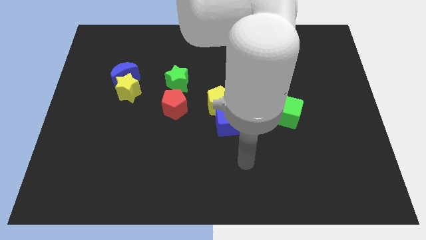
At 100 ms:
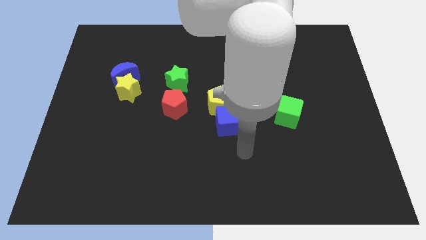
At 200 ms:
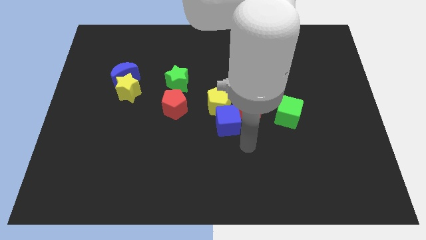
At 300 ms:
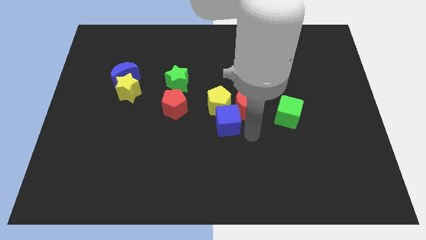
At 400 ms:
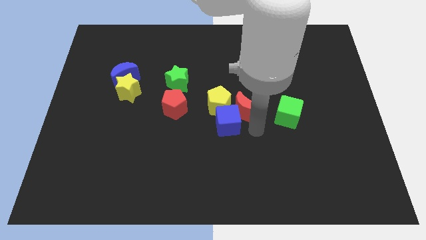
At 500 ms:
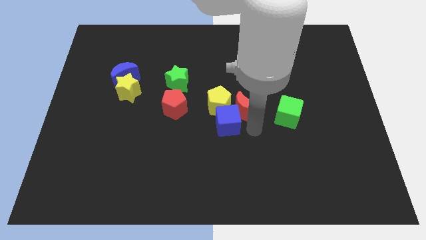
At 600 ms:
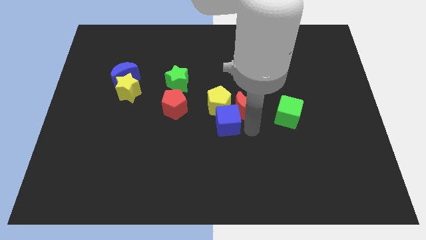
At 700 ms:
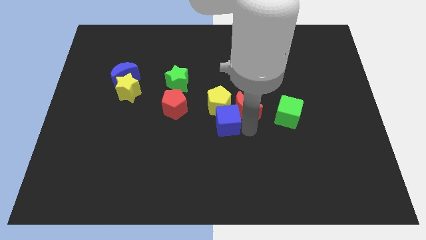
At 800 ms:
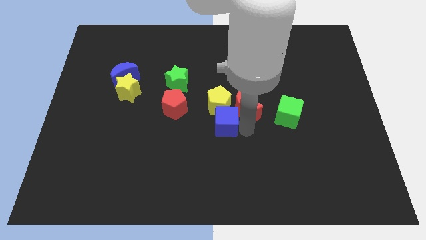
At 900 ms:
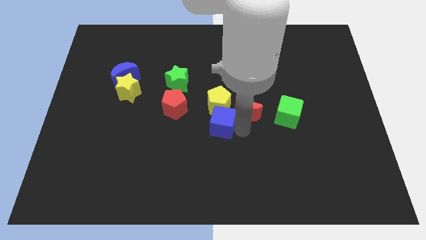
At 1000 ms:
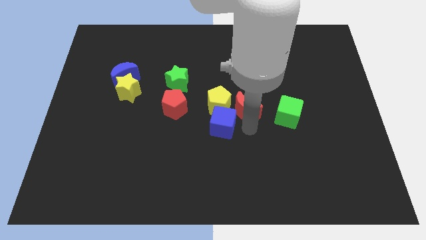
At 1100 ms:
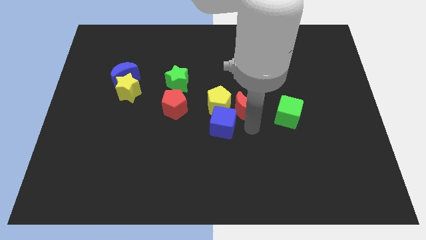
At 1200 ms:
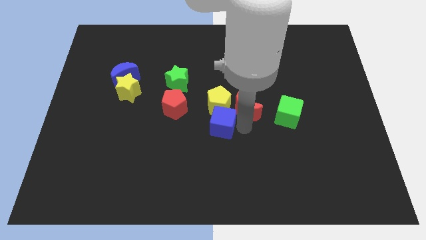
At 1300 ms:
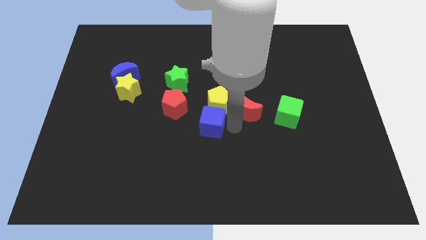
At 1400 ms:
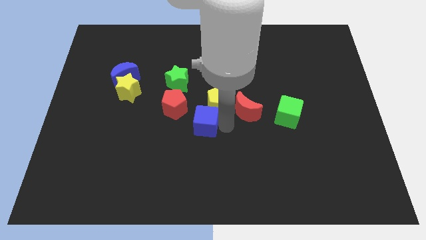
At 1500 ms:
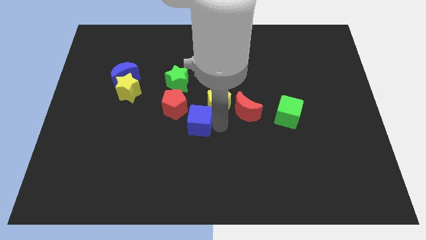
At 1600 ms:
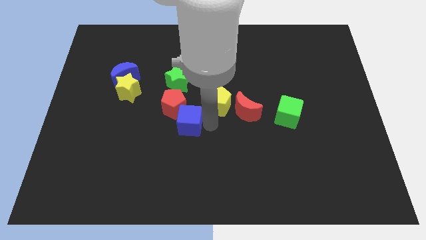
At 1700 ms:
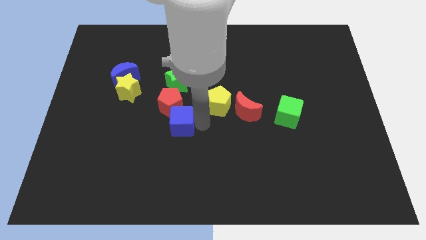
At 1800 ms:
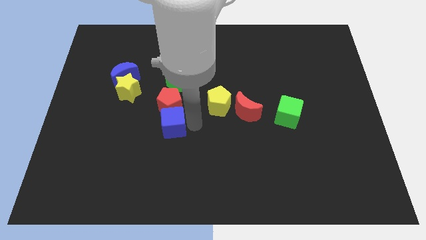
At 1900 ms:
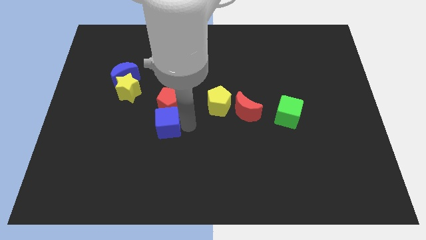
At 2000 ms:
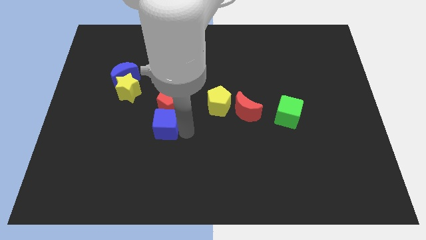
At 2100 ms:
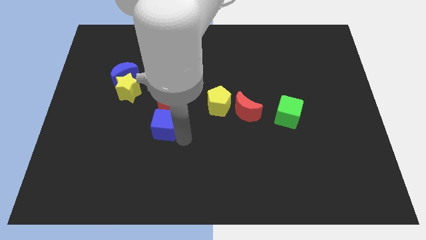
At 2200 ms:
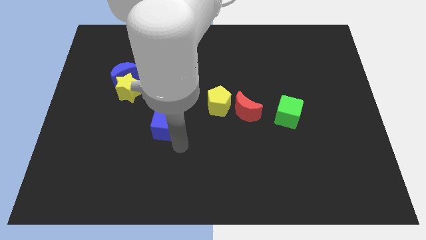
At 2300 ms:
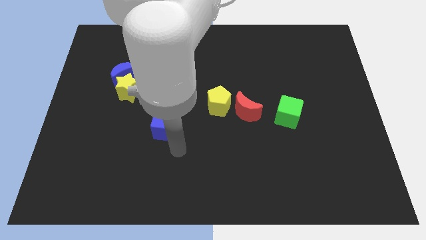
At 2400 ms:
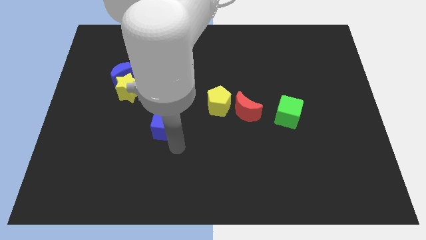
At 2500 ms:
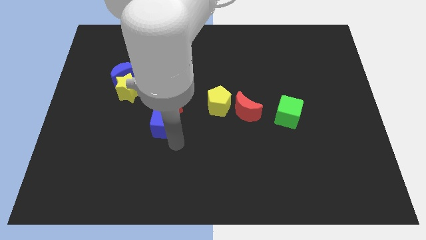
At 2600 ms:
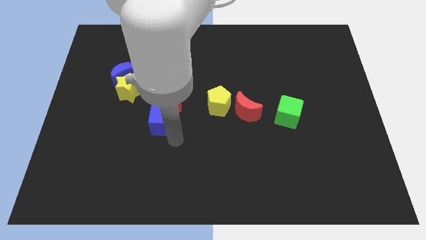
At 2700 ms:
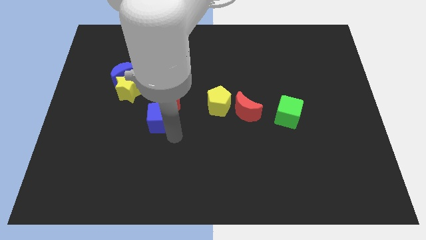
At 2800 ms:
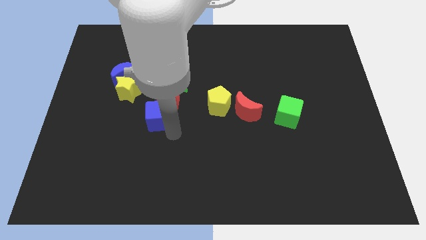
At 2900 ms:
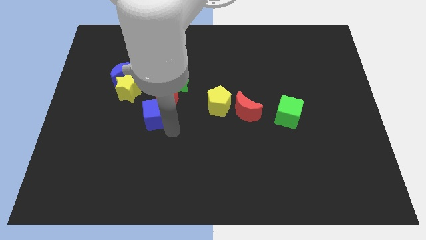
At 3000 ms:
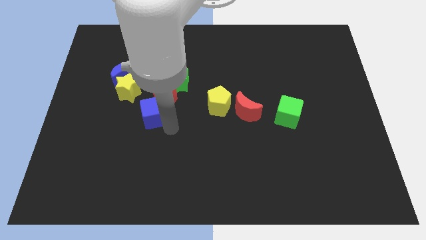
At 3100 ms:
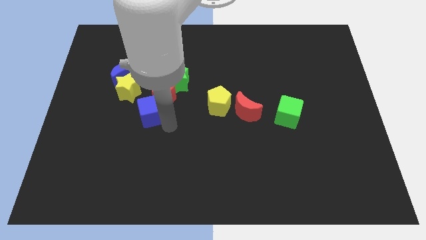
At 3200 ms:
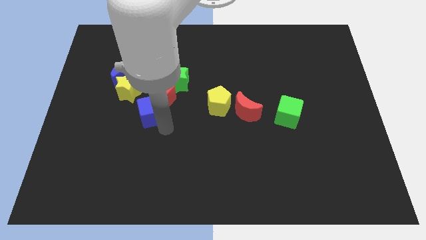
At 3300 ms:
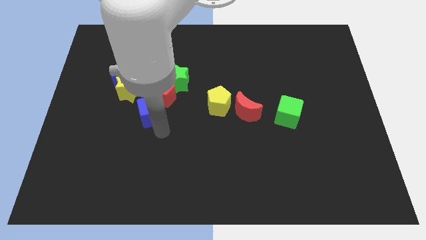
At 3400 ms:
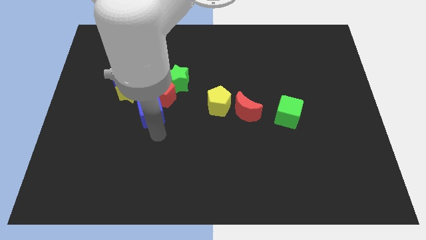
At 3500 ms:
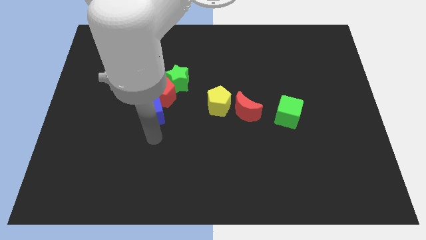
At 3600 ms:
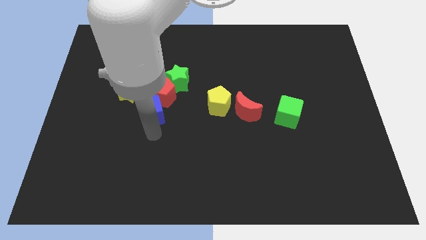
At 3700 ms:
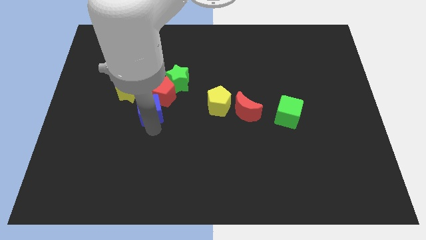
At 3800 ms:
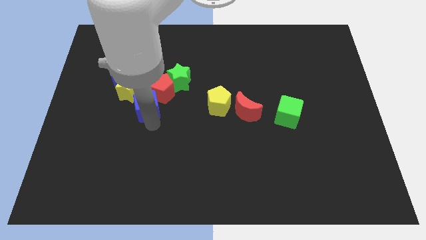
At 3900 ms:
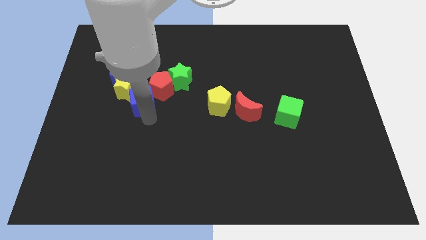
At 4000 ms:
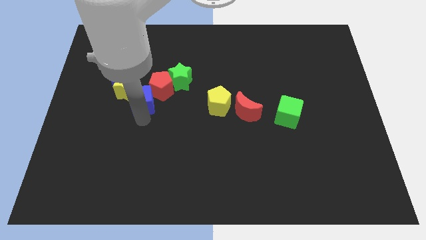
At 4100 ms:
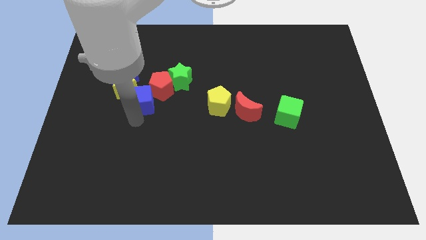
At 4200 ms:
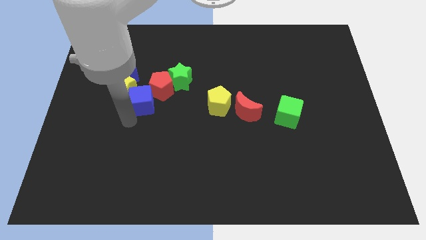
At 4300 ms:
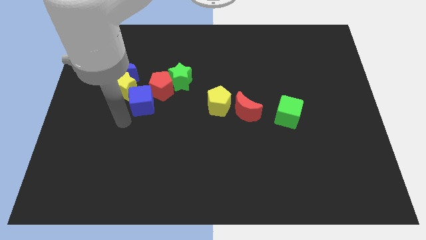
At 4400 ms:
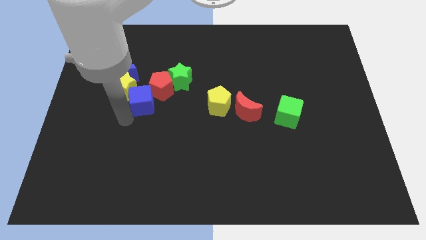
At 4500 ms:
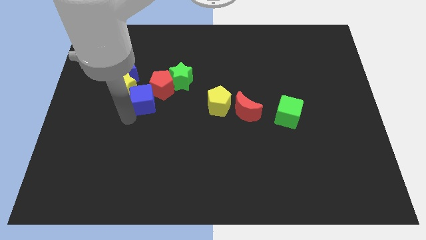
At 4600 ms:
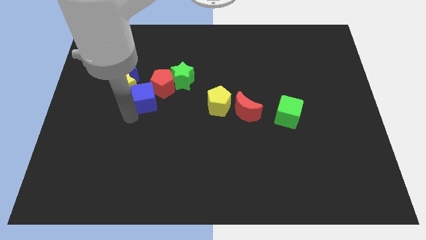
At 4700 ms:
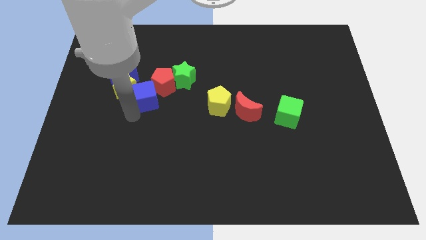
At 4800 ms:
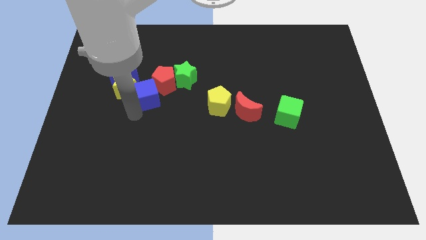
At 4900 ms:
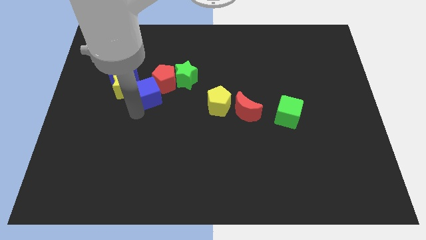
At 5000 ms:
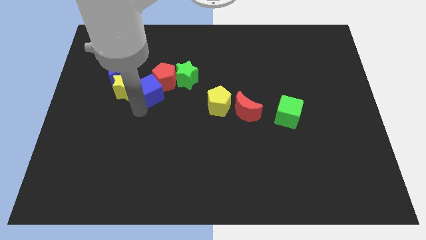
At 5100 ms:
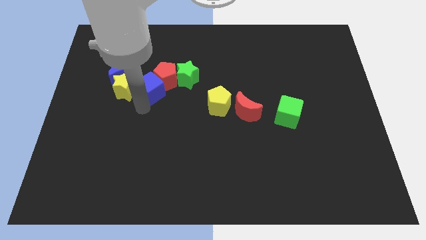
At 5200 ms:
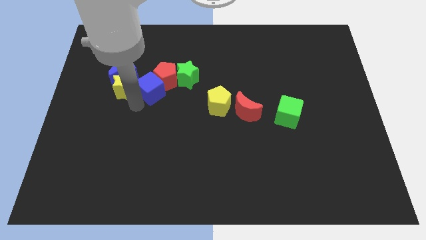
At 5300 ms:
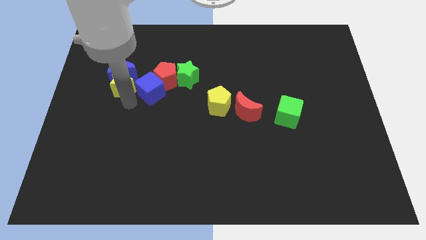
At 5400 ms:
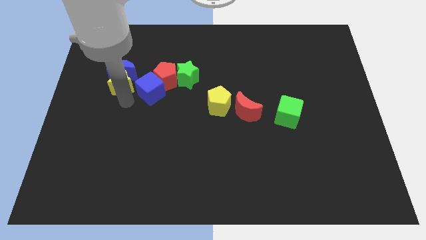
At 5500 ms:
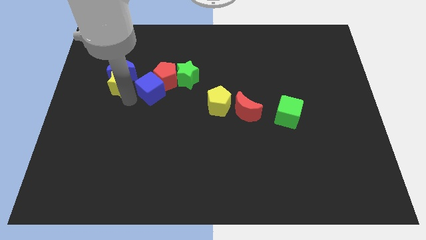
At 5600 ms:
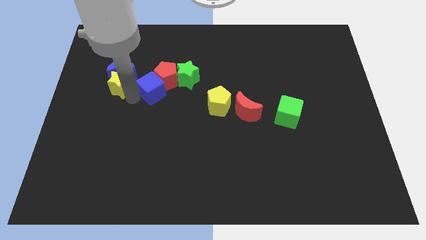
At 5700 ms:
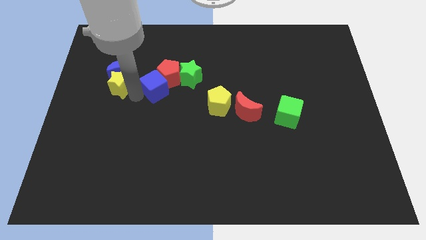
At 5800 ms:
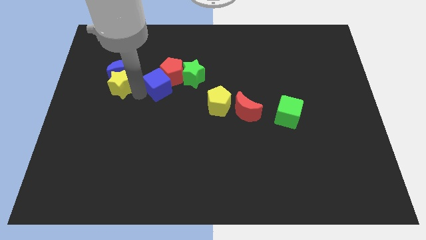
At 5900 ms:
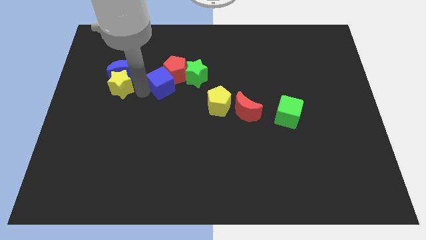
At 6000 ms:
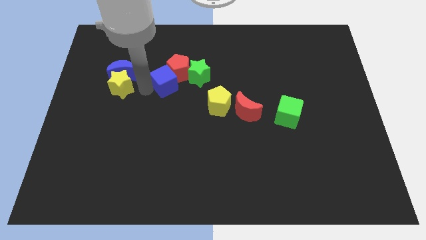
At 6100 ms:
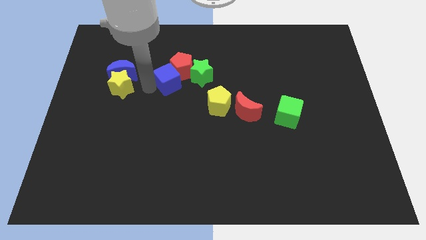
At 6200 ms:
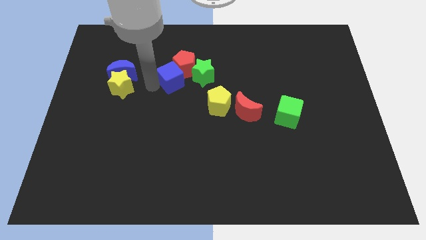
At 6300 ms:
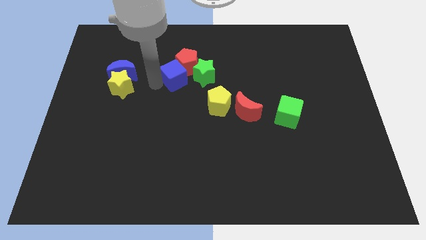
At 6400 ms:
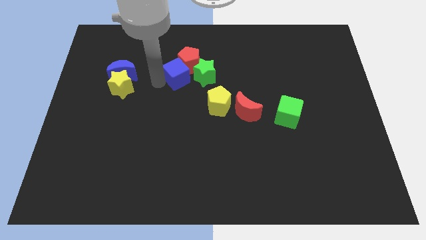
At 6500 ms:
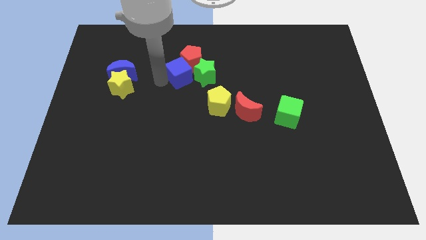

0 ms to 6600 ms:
move the blue cube towards the green star

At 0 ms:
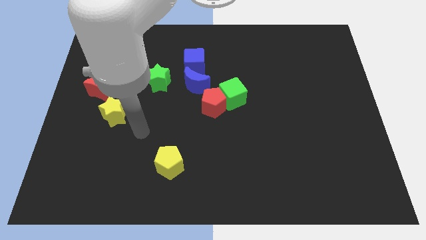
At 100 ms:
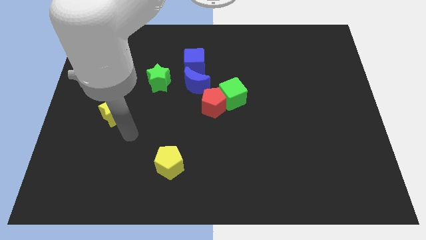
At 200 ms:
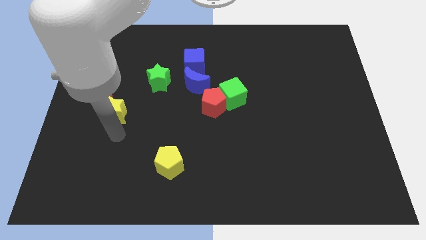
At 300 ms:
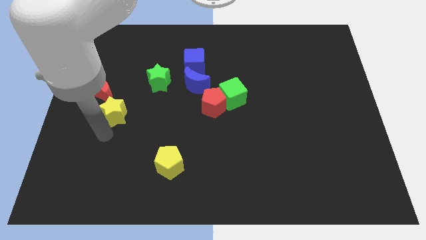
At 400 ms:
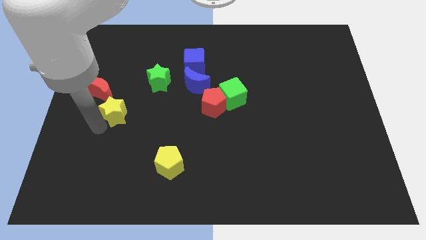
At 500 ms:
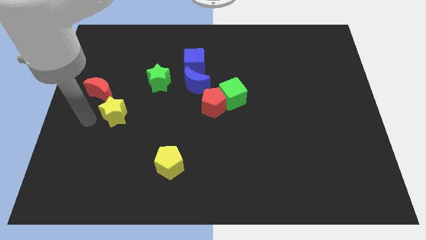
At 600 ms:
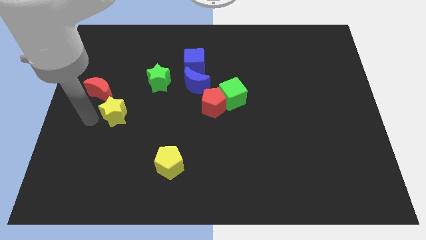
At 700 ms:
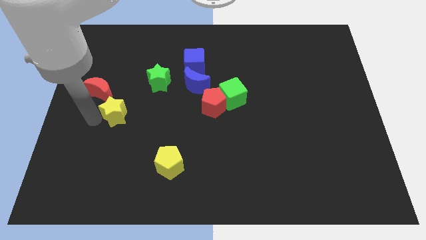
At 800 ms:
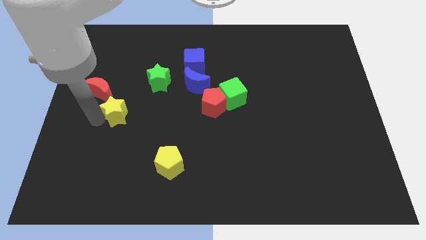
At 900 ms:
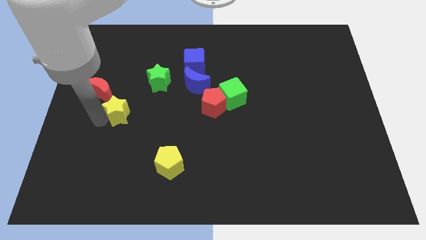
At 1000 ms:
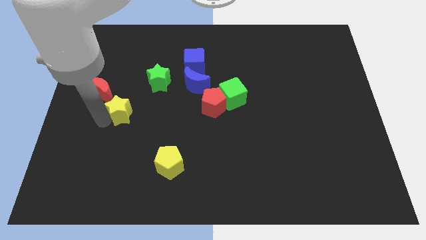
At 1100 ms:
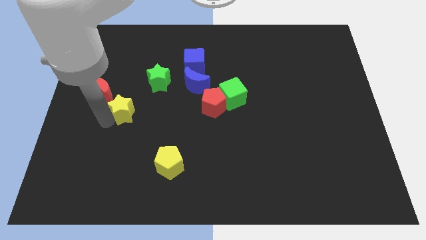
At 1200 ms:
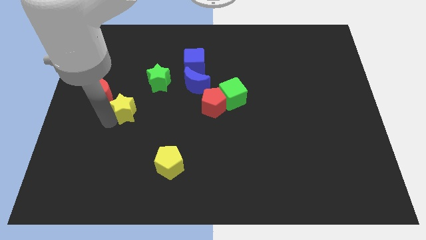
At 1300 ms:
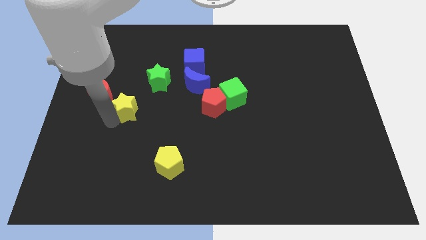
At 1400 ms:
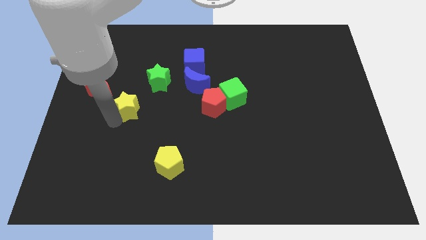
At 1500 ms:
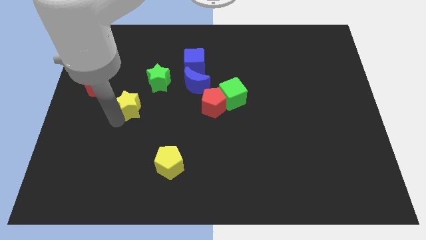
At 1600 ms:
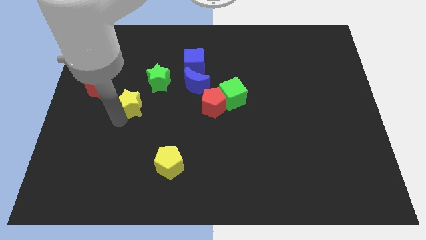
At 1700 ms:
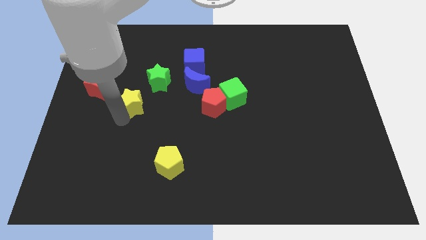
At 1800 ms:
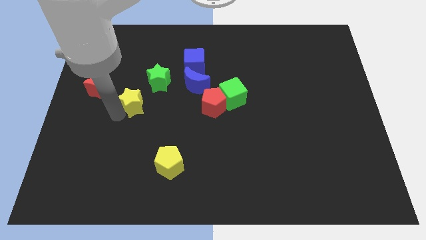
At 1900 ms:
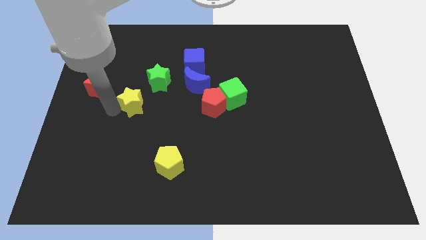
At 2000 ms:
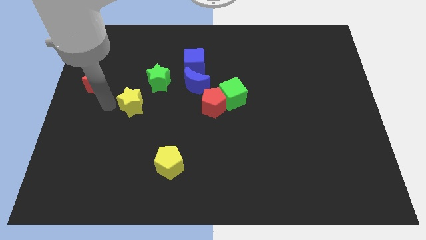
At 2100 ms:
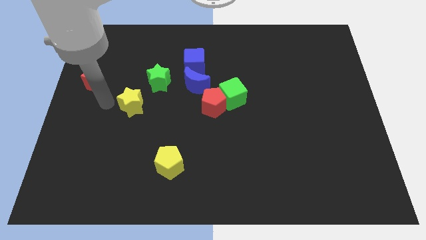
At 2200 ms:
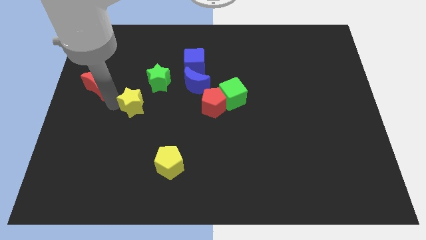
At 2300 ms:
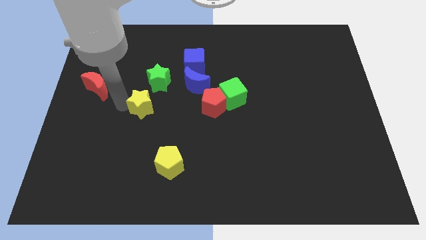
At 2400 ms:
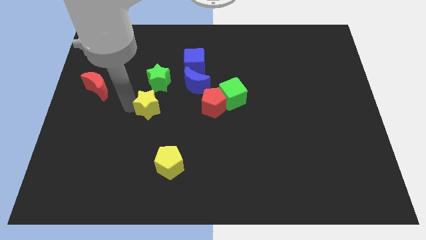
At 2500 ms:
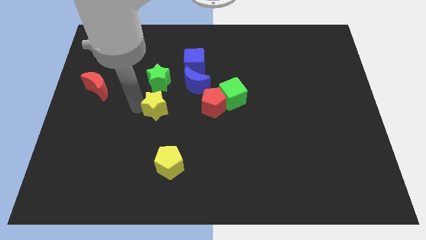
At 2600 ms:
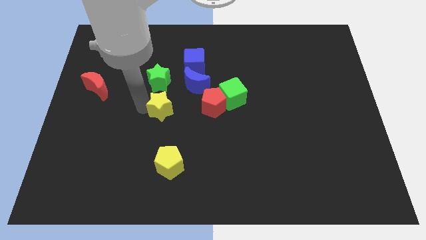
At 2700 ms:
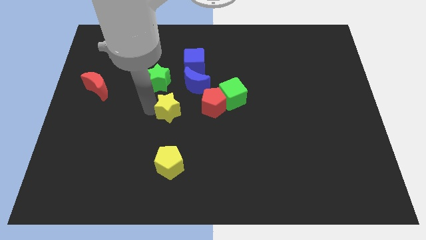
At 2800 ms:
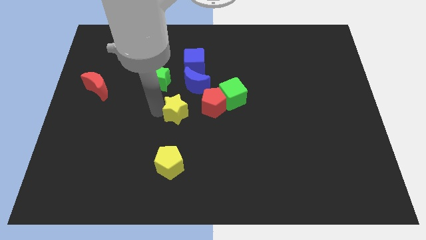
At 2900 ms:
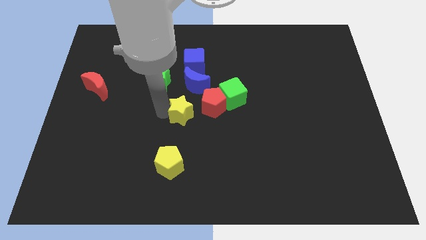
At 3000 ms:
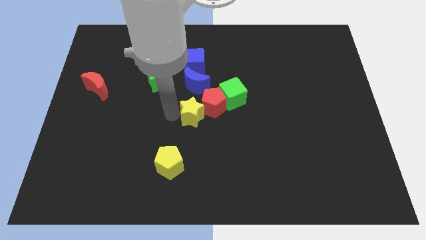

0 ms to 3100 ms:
push the yellow star next to the red pentagon
